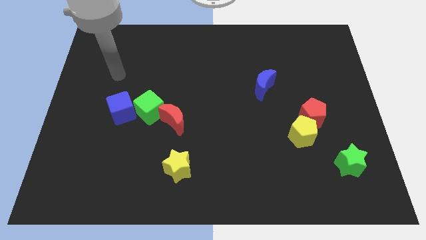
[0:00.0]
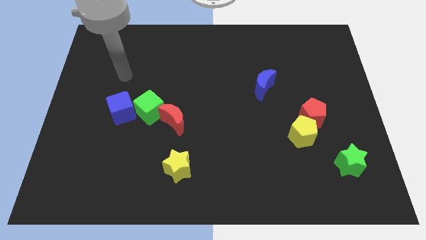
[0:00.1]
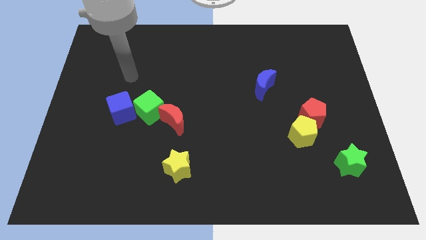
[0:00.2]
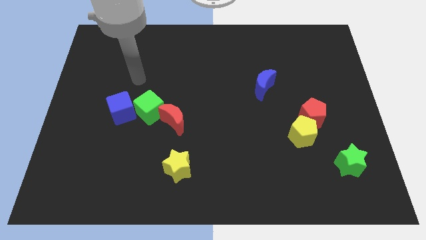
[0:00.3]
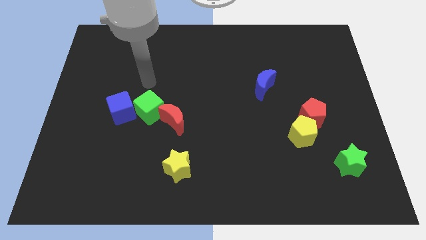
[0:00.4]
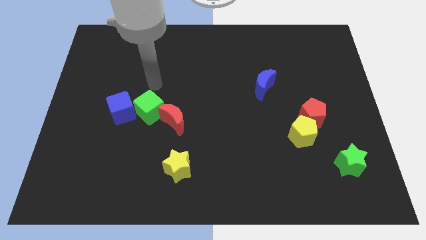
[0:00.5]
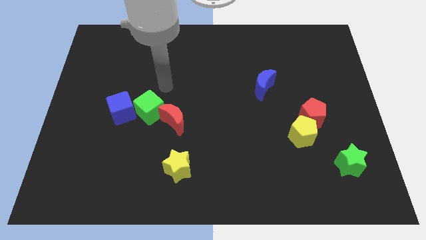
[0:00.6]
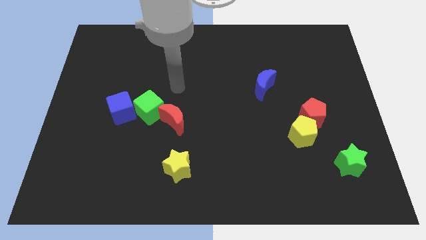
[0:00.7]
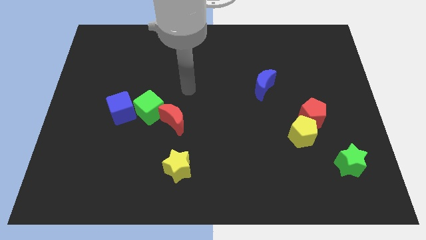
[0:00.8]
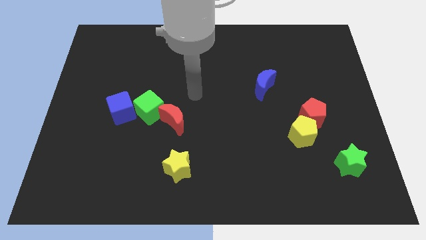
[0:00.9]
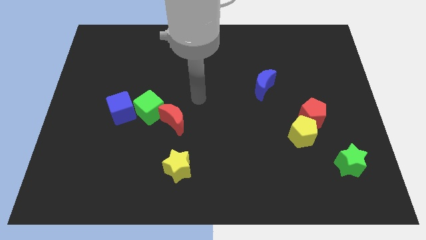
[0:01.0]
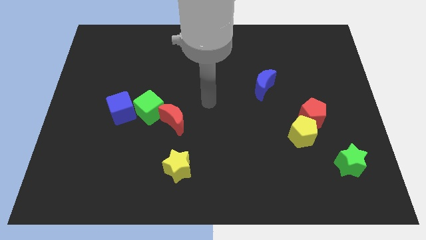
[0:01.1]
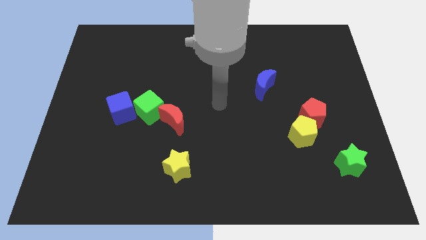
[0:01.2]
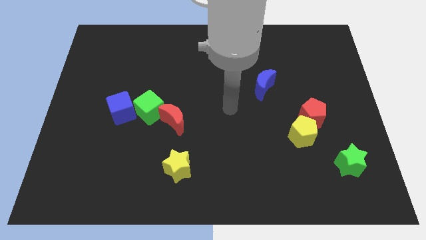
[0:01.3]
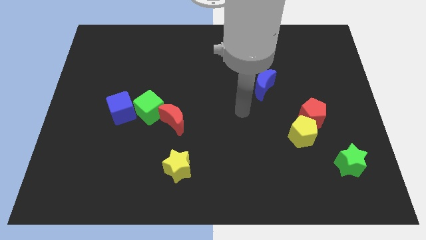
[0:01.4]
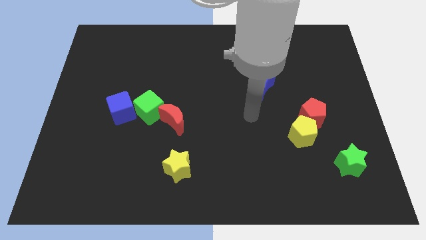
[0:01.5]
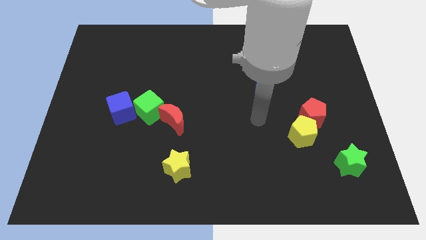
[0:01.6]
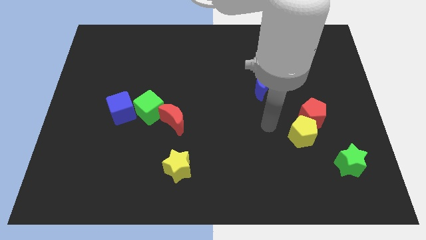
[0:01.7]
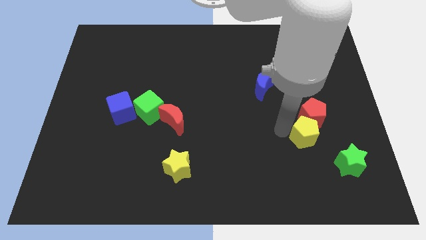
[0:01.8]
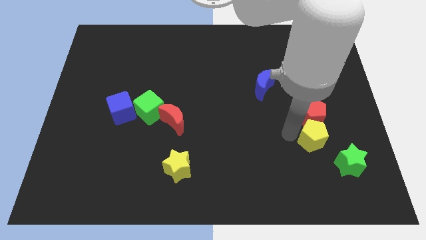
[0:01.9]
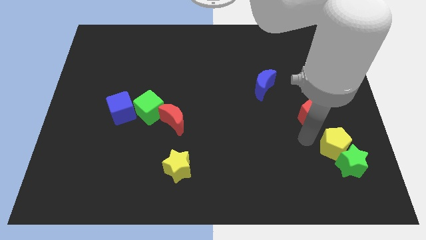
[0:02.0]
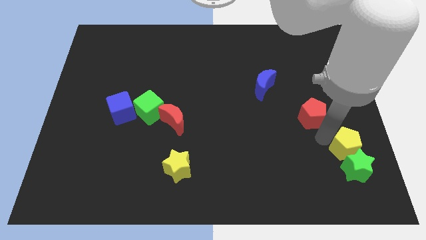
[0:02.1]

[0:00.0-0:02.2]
move the red pentagon away from the yellow pentagon

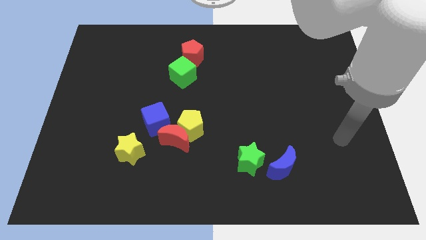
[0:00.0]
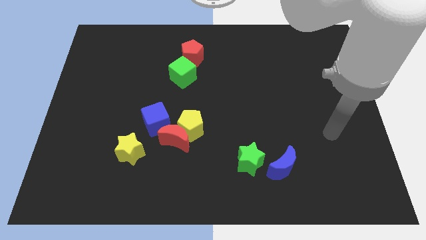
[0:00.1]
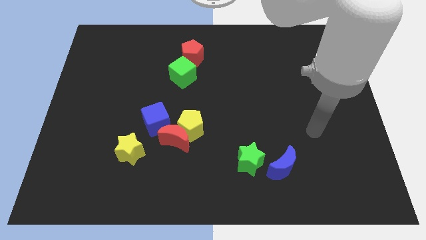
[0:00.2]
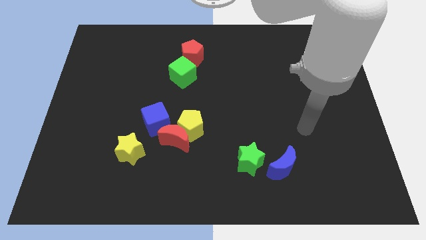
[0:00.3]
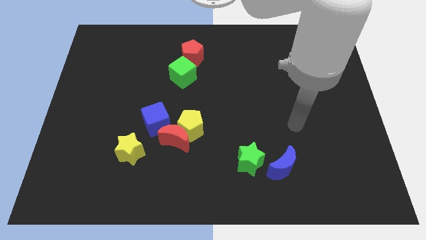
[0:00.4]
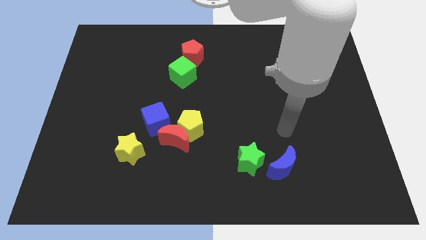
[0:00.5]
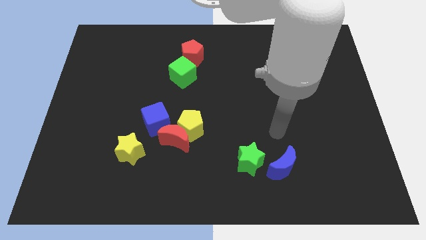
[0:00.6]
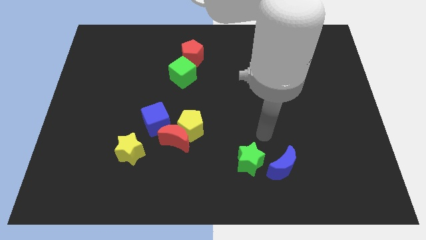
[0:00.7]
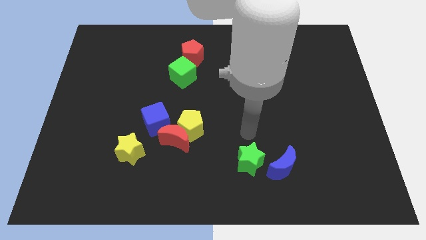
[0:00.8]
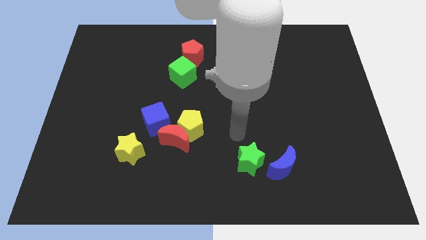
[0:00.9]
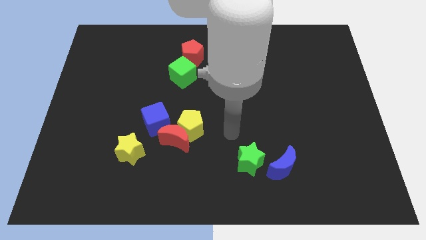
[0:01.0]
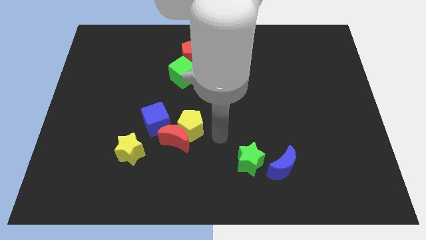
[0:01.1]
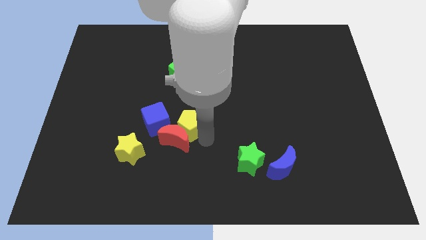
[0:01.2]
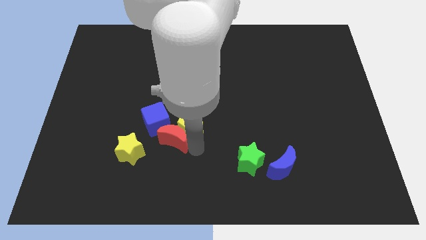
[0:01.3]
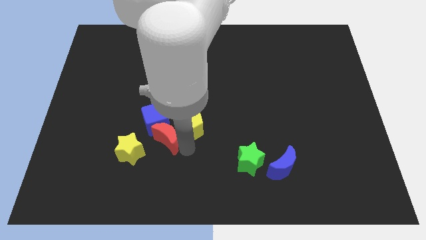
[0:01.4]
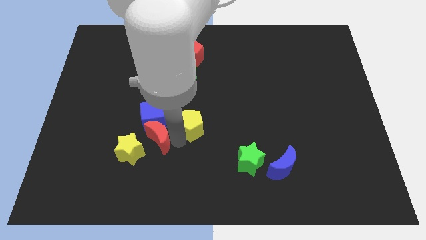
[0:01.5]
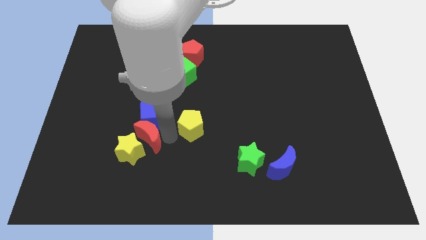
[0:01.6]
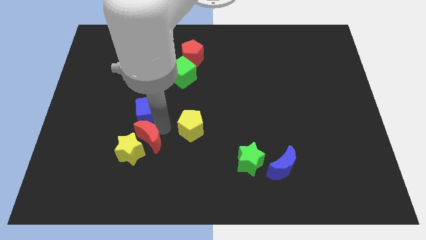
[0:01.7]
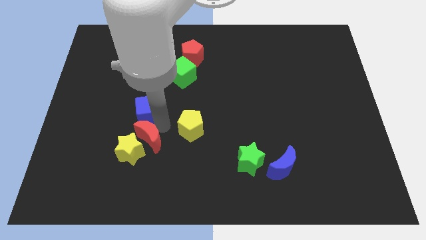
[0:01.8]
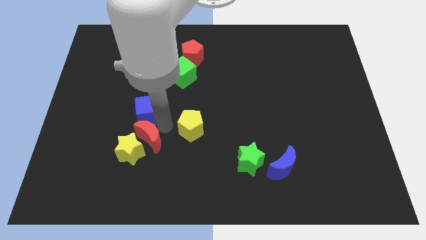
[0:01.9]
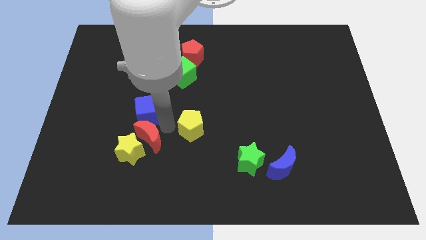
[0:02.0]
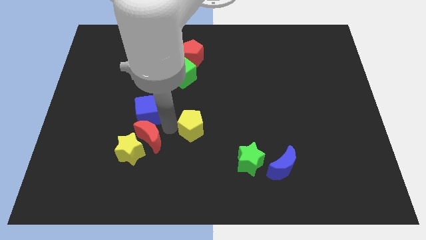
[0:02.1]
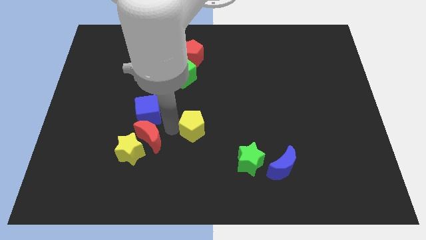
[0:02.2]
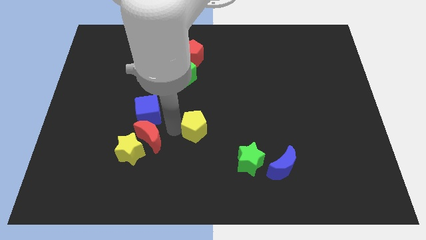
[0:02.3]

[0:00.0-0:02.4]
pull the yellow pentagon apart from the red moon and blue cube

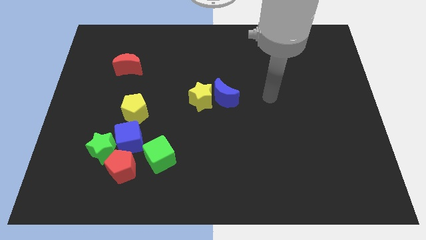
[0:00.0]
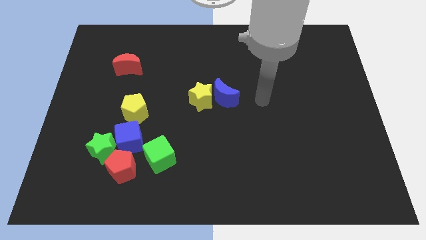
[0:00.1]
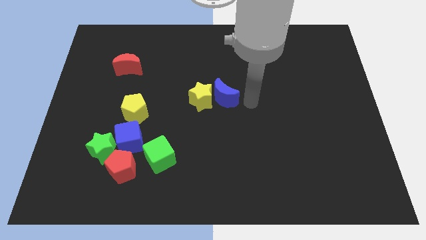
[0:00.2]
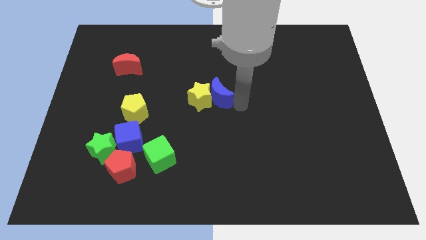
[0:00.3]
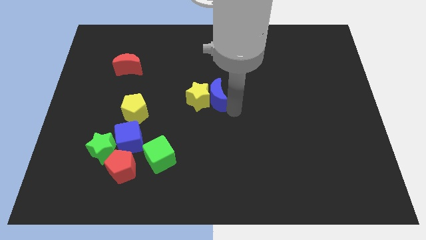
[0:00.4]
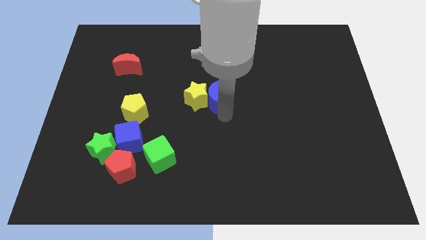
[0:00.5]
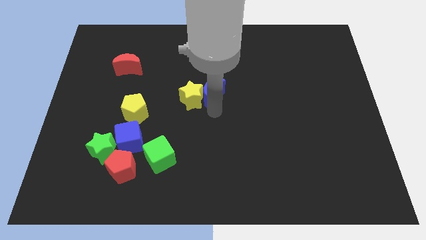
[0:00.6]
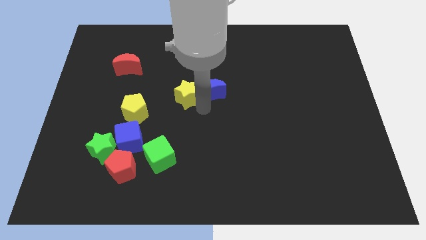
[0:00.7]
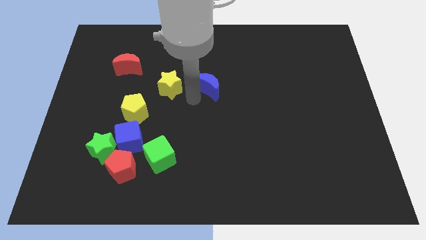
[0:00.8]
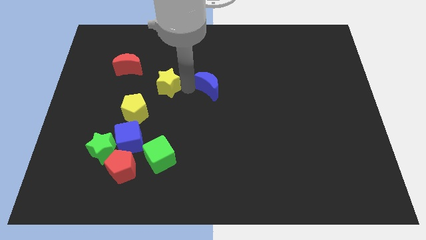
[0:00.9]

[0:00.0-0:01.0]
separate the blue moon from the yellow star

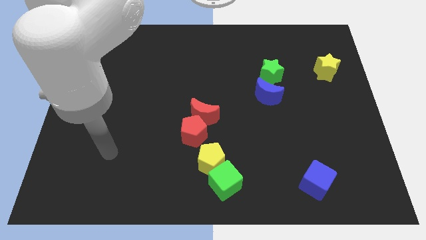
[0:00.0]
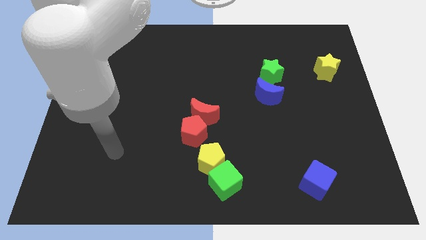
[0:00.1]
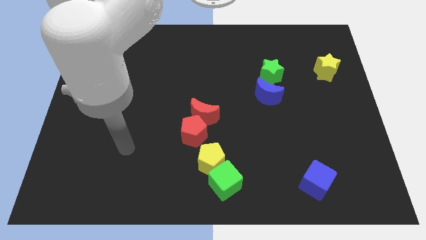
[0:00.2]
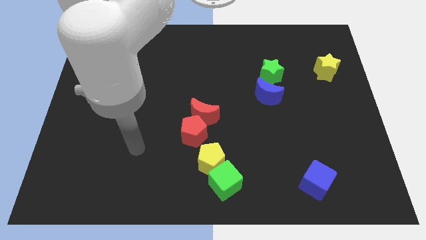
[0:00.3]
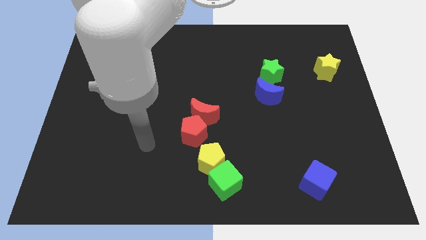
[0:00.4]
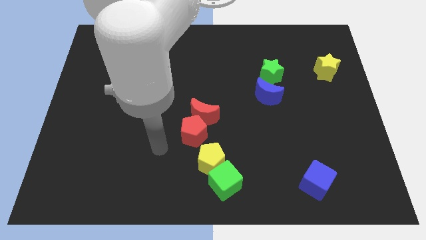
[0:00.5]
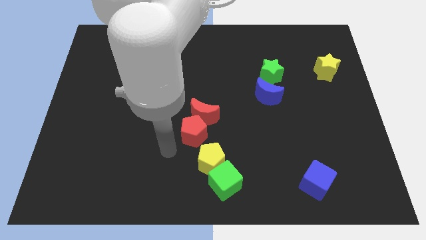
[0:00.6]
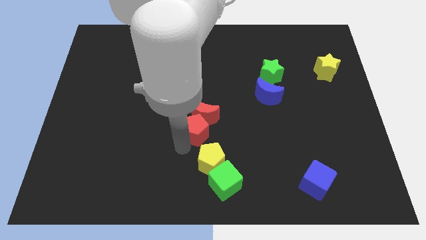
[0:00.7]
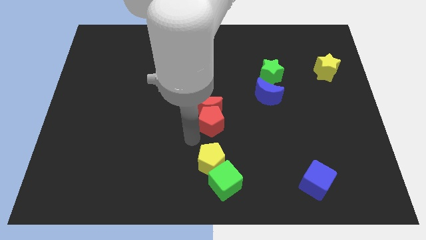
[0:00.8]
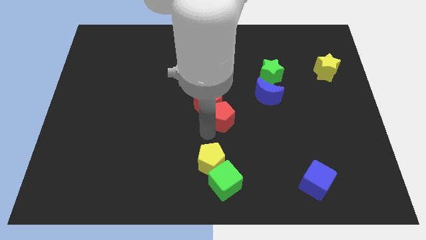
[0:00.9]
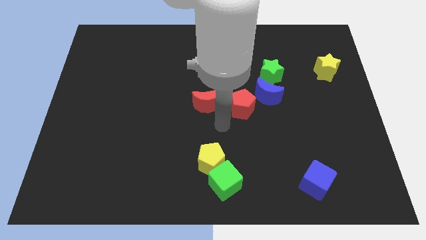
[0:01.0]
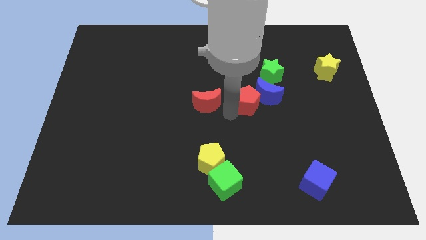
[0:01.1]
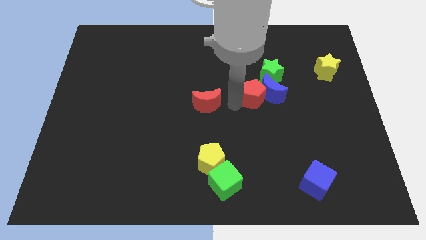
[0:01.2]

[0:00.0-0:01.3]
pull the red moon apart from the red pentagon

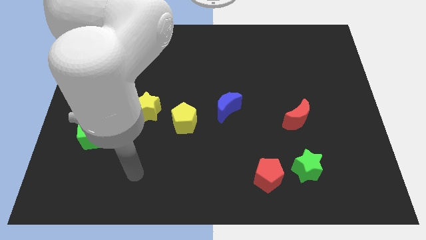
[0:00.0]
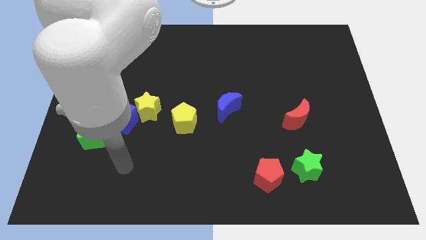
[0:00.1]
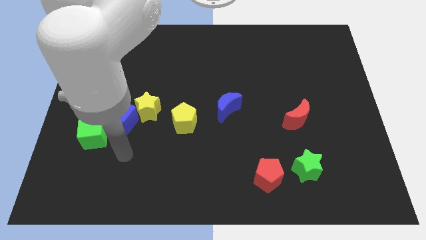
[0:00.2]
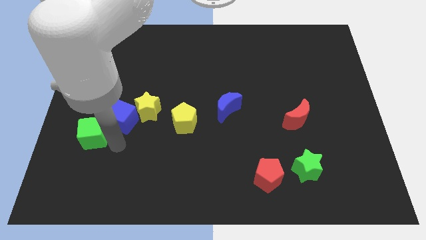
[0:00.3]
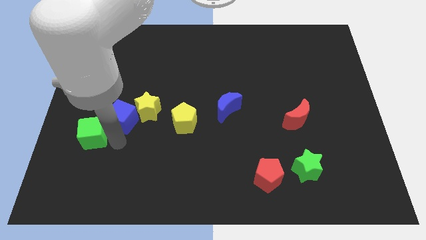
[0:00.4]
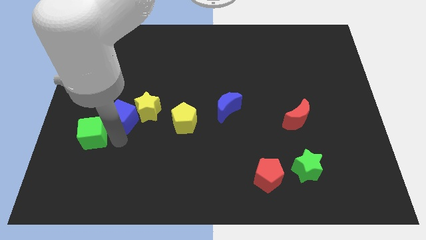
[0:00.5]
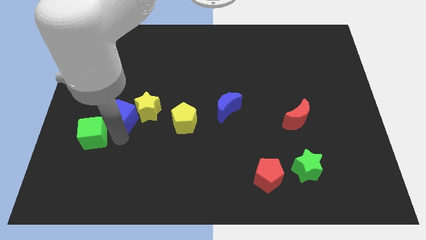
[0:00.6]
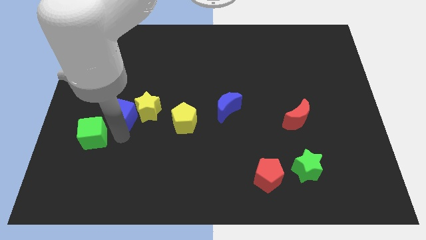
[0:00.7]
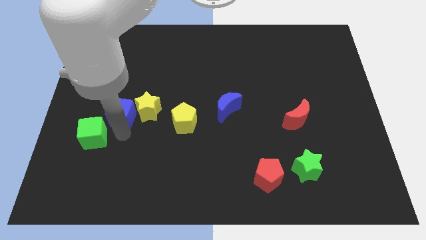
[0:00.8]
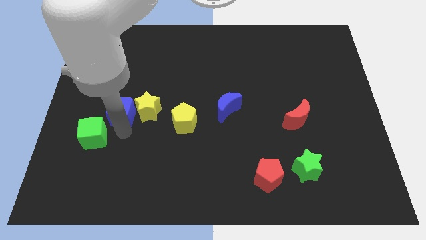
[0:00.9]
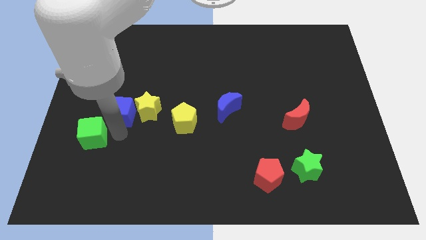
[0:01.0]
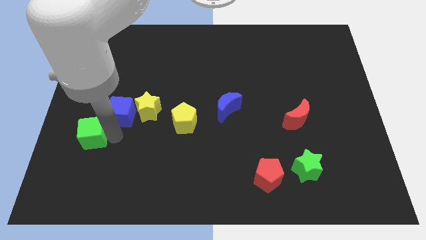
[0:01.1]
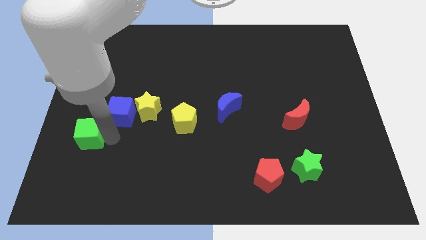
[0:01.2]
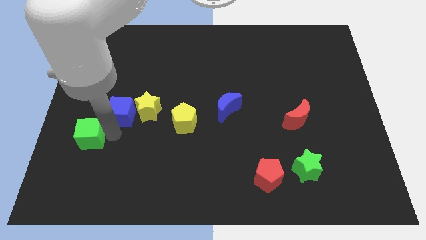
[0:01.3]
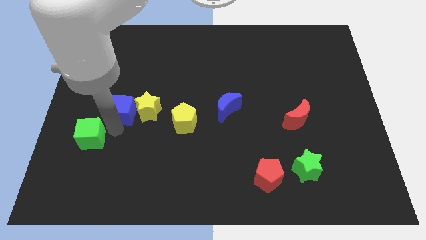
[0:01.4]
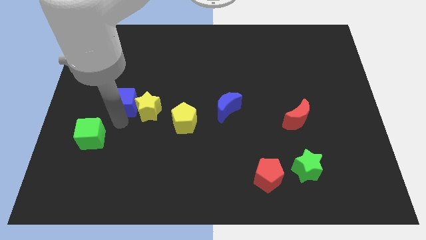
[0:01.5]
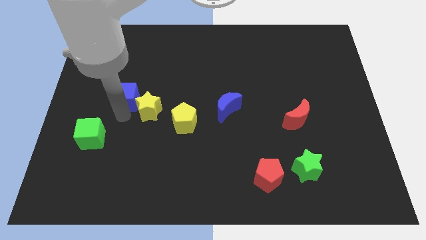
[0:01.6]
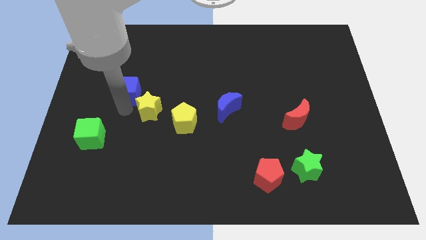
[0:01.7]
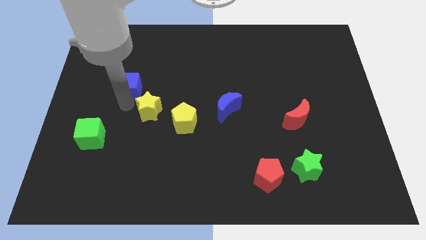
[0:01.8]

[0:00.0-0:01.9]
separate the blue cube from the yellow star and green cube

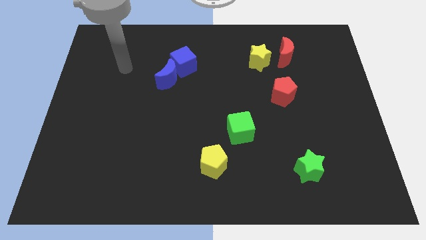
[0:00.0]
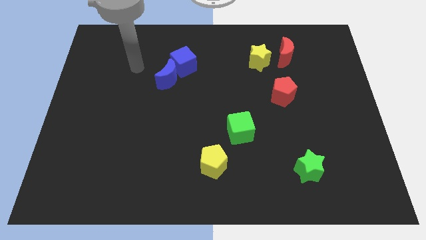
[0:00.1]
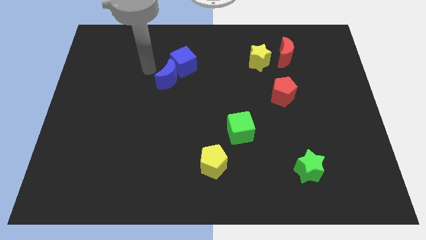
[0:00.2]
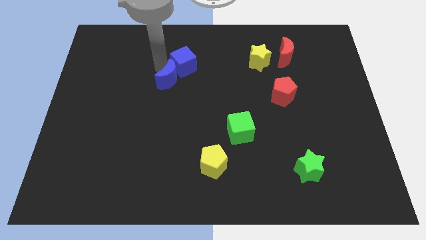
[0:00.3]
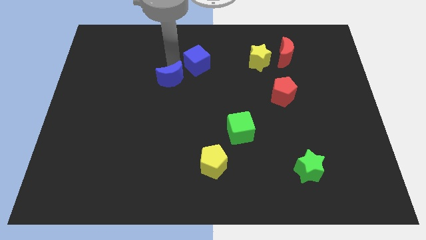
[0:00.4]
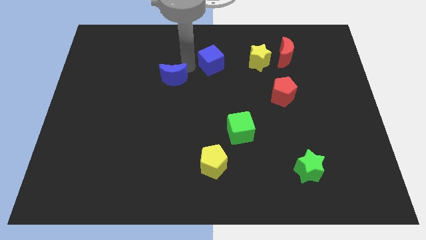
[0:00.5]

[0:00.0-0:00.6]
move the blue moon away from the blue cube
